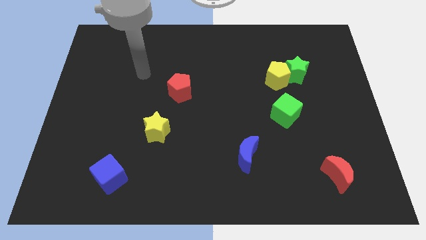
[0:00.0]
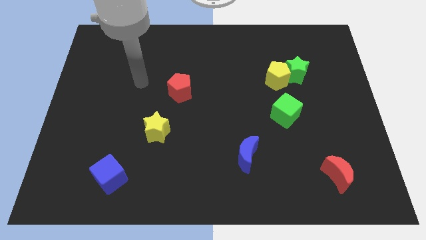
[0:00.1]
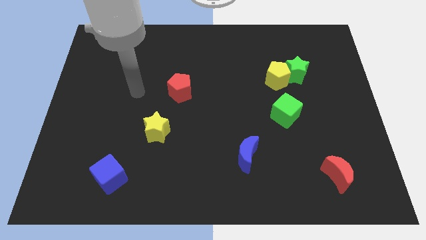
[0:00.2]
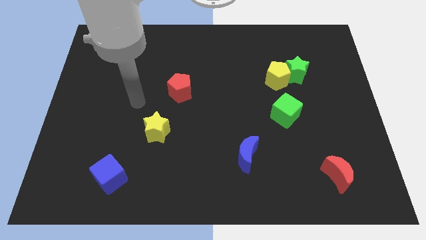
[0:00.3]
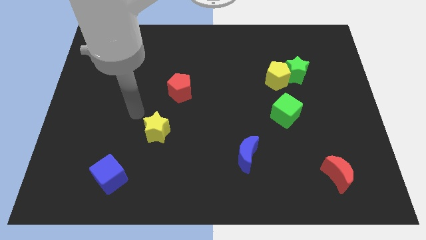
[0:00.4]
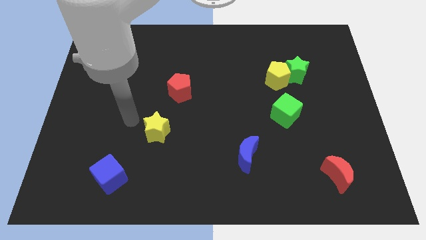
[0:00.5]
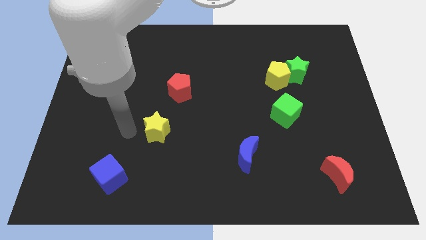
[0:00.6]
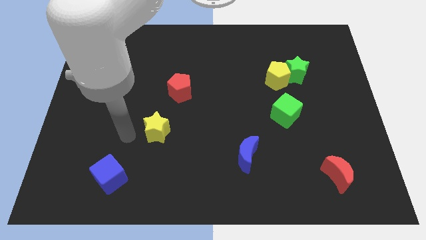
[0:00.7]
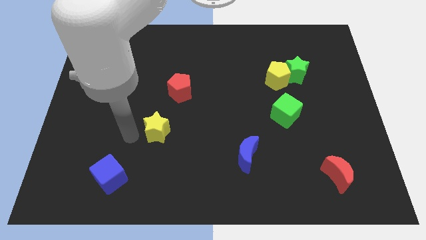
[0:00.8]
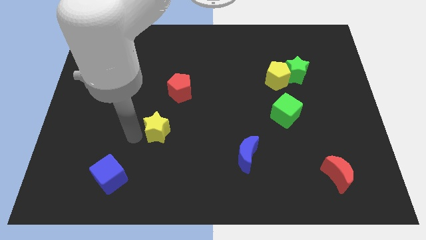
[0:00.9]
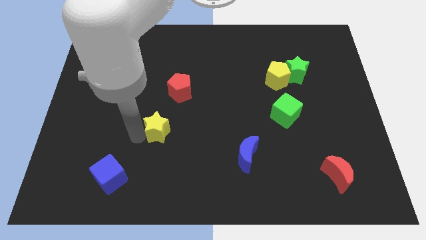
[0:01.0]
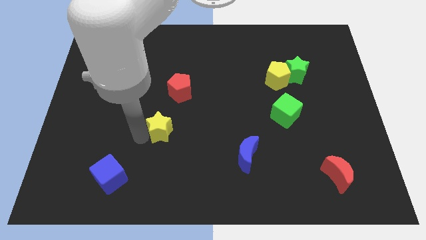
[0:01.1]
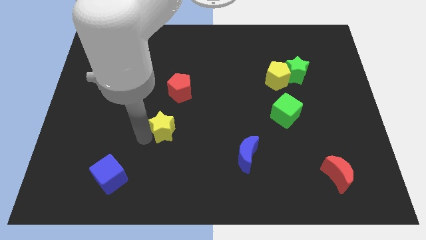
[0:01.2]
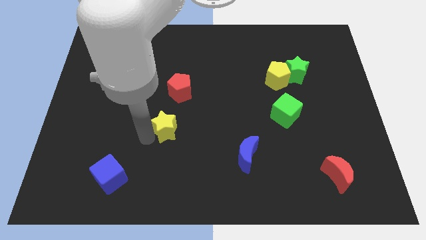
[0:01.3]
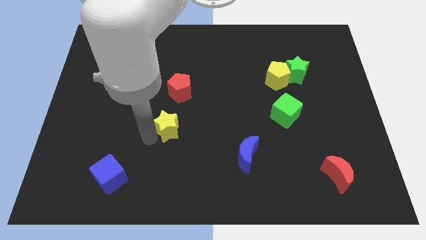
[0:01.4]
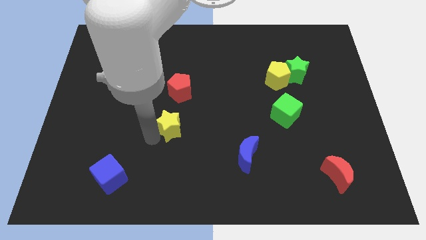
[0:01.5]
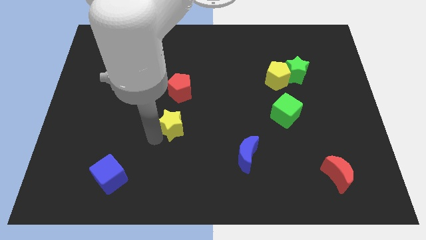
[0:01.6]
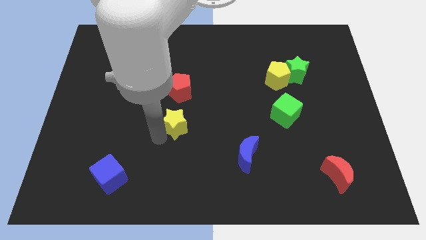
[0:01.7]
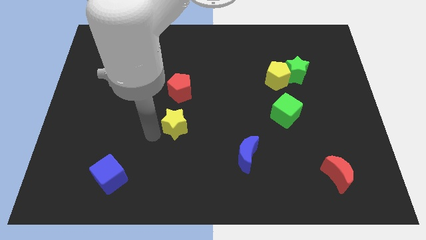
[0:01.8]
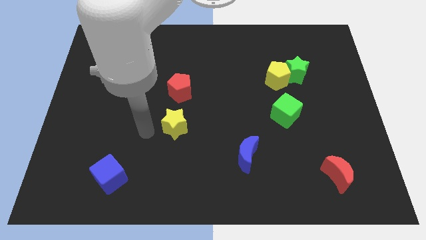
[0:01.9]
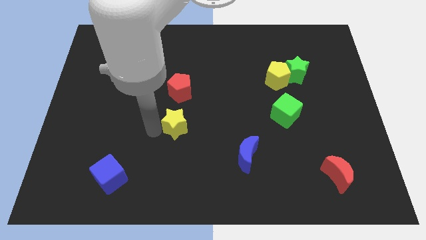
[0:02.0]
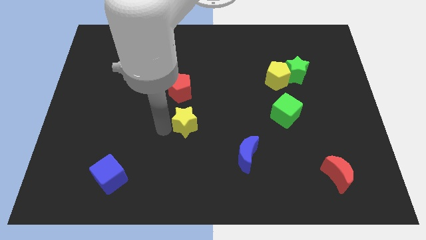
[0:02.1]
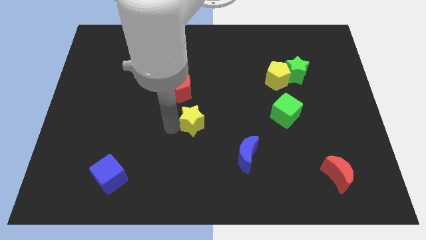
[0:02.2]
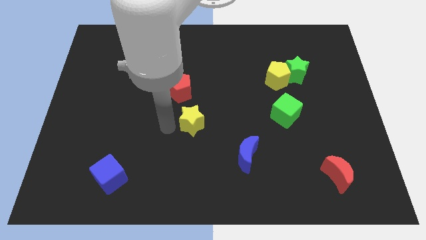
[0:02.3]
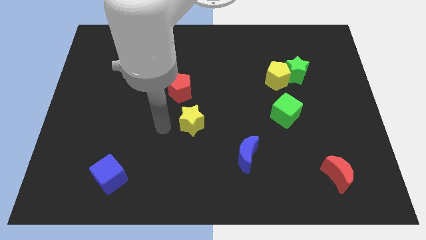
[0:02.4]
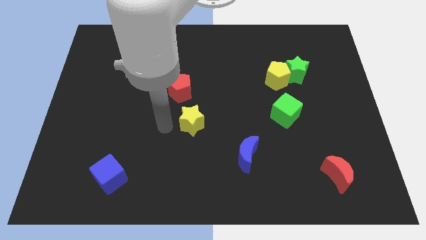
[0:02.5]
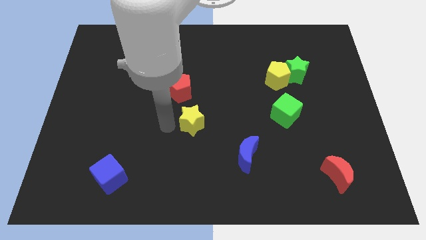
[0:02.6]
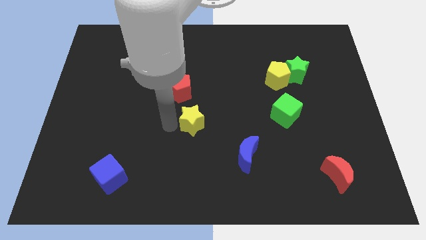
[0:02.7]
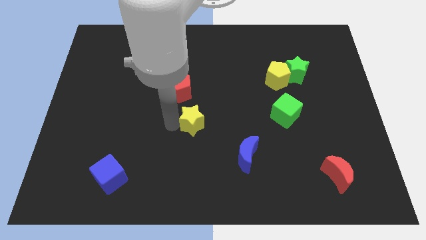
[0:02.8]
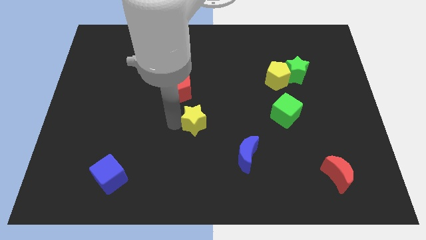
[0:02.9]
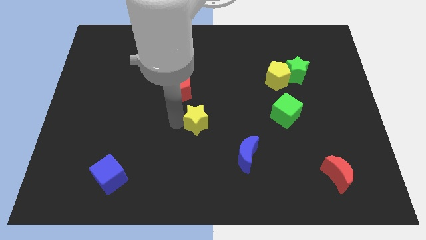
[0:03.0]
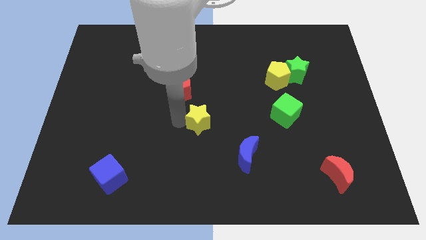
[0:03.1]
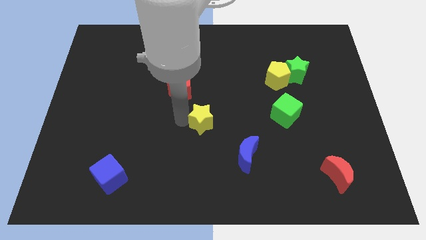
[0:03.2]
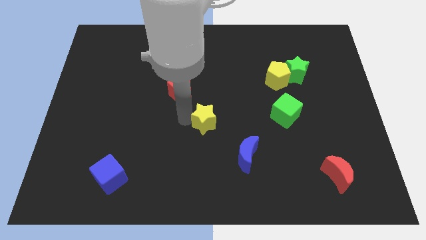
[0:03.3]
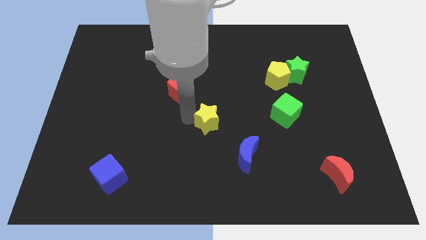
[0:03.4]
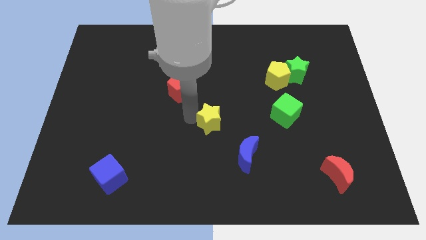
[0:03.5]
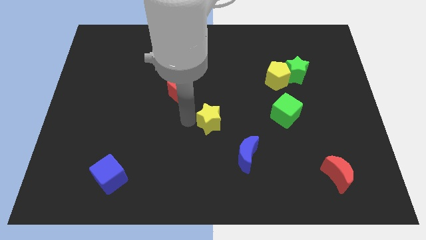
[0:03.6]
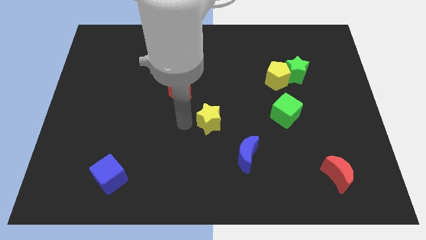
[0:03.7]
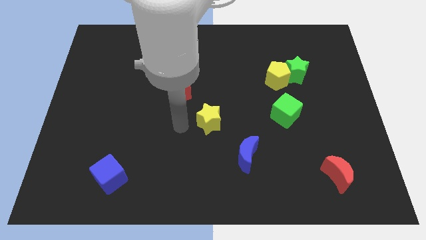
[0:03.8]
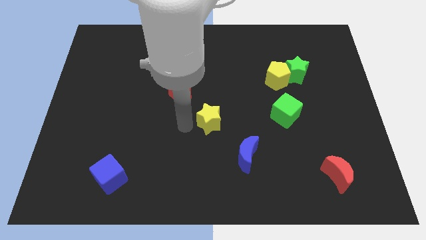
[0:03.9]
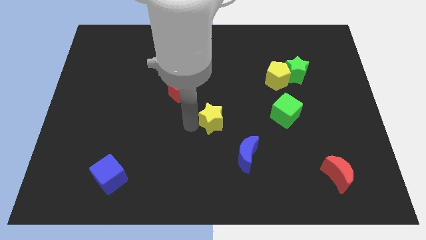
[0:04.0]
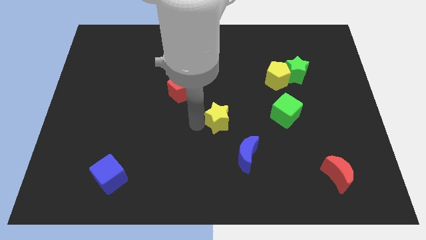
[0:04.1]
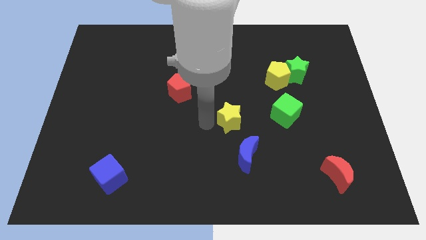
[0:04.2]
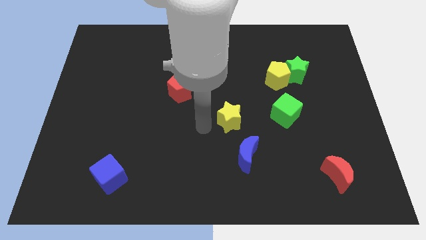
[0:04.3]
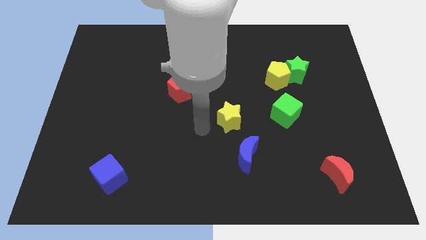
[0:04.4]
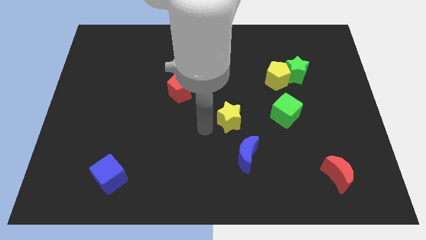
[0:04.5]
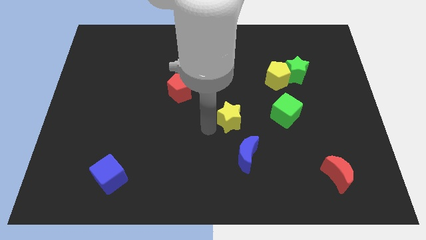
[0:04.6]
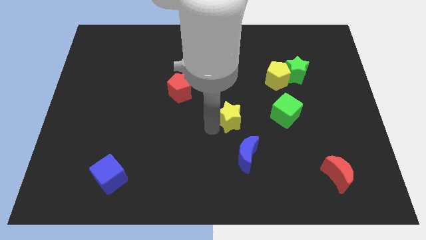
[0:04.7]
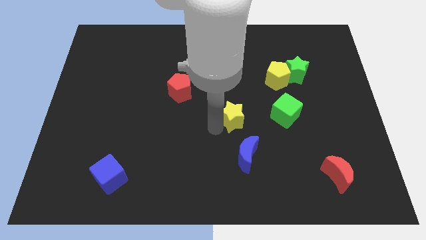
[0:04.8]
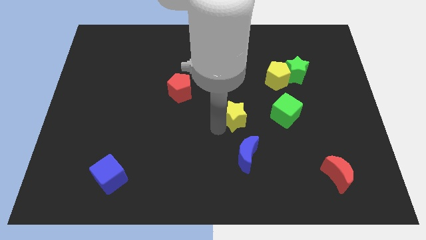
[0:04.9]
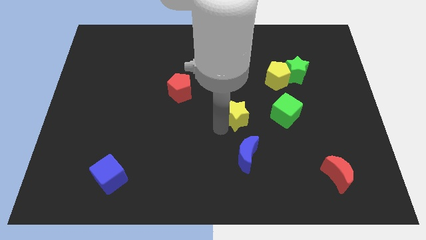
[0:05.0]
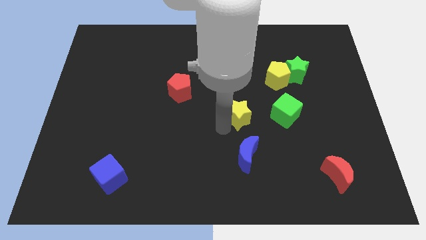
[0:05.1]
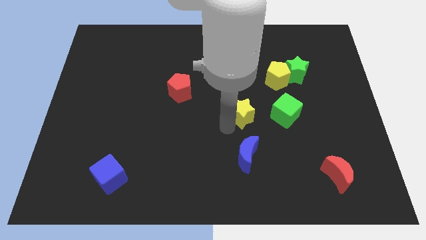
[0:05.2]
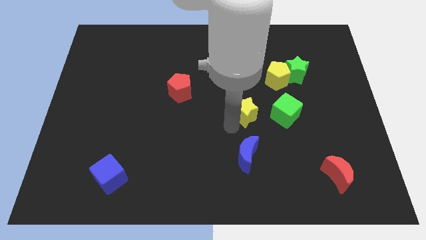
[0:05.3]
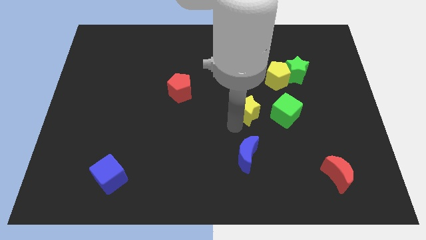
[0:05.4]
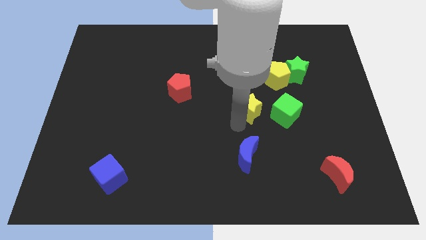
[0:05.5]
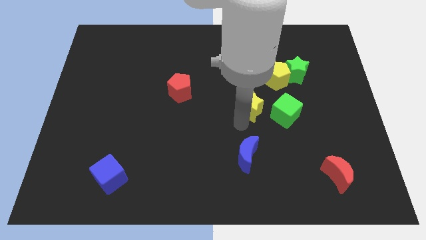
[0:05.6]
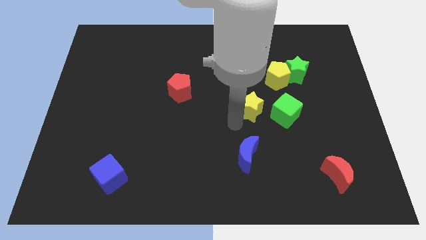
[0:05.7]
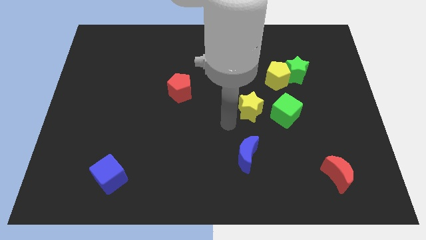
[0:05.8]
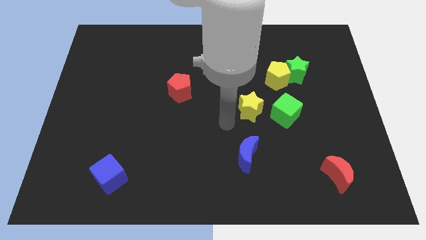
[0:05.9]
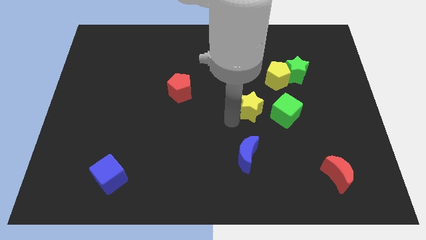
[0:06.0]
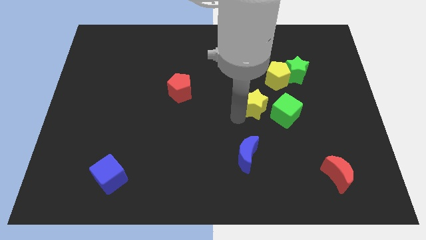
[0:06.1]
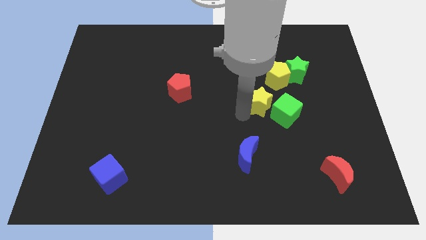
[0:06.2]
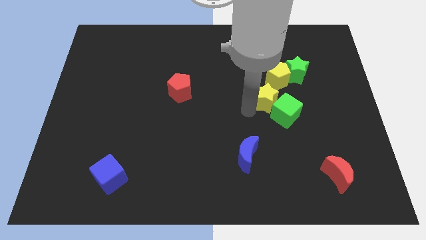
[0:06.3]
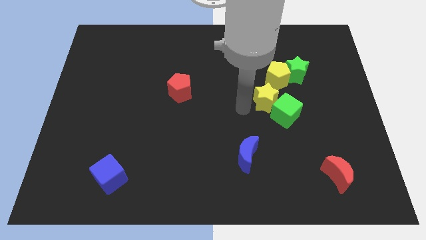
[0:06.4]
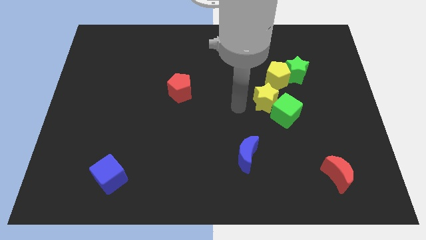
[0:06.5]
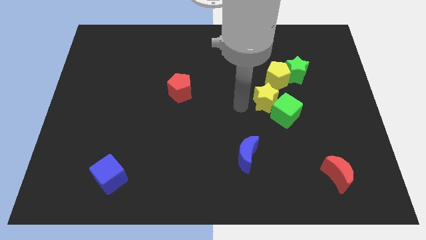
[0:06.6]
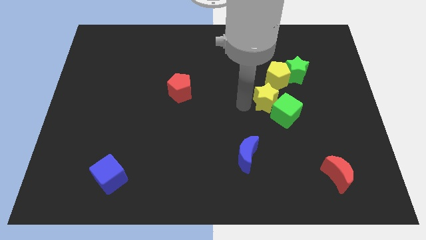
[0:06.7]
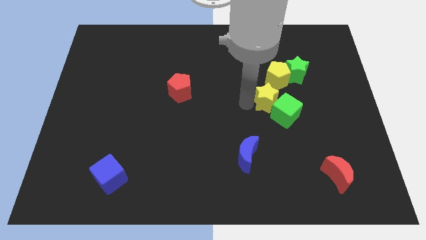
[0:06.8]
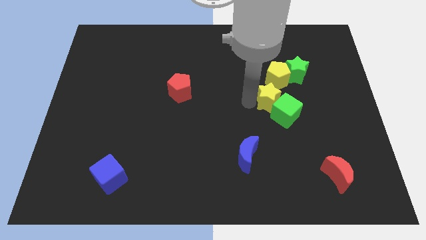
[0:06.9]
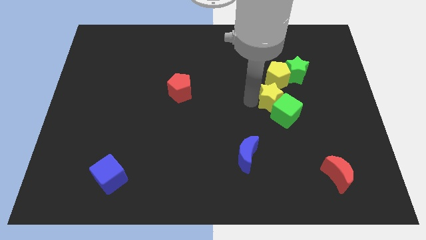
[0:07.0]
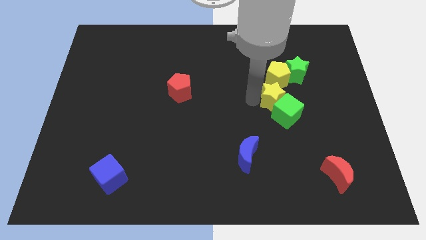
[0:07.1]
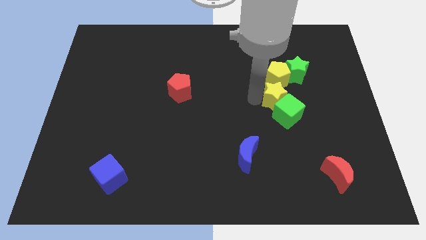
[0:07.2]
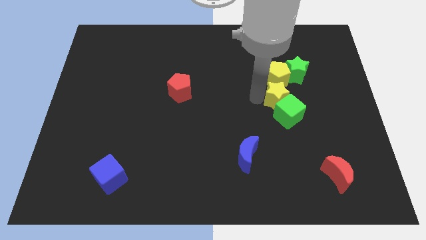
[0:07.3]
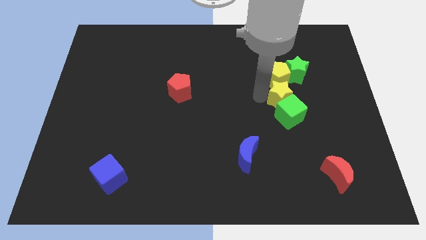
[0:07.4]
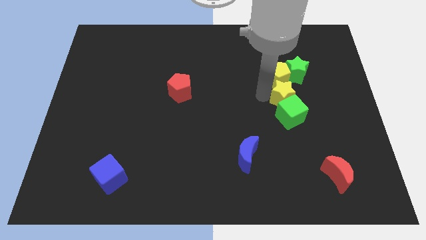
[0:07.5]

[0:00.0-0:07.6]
put the yellow star diagonally up and to the right of the green cube

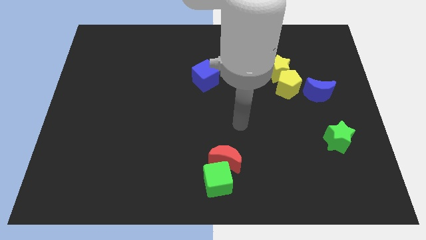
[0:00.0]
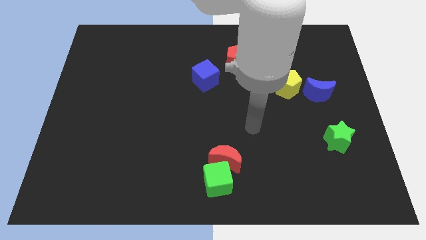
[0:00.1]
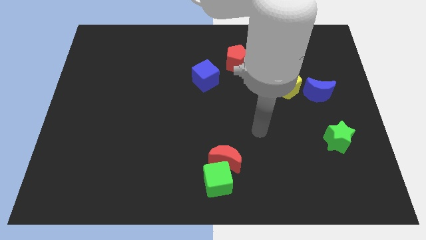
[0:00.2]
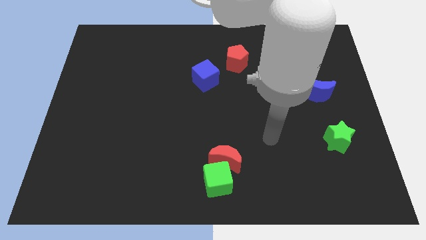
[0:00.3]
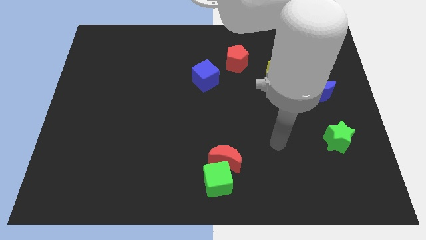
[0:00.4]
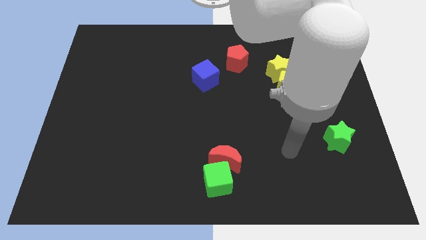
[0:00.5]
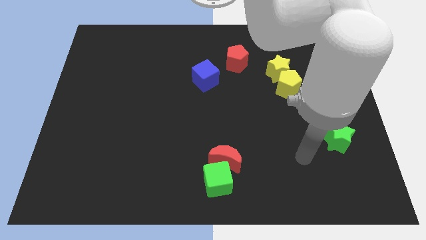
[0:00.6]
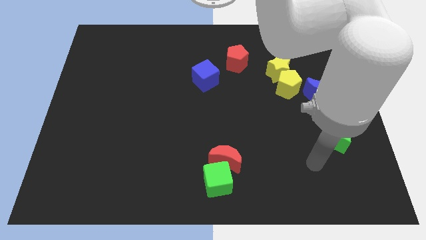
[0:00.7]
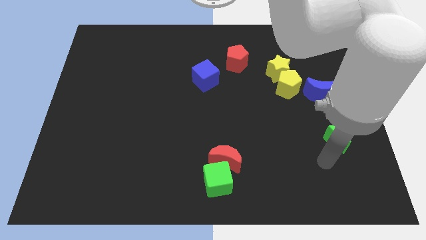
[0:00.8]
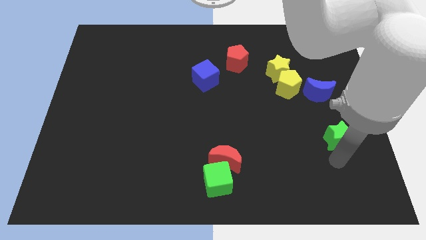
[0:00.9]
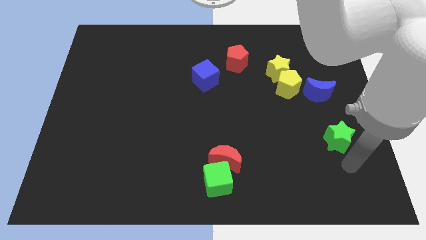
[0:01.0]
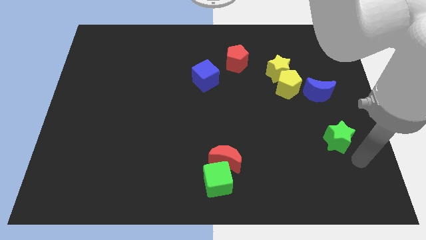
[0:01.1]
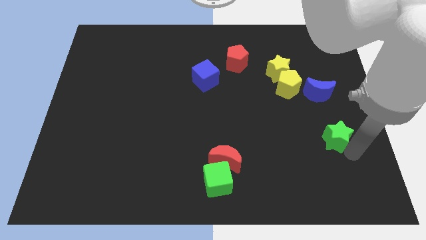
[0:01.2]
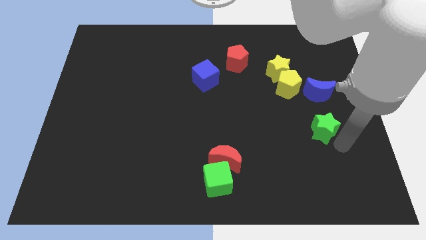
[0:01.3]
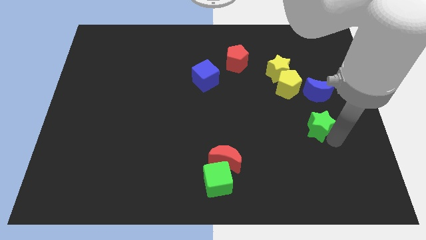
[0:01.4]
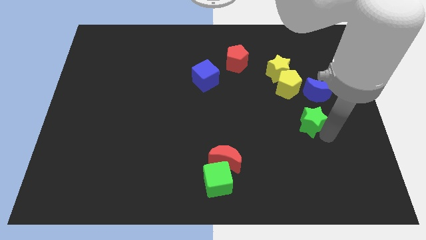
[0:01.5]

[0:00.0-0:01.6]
move the green star diagonally down and to the left of the blue moon
